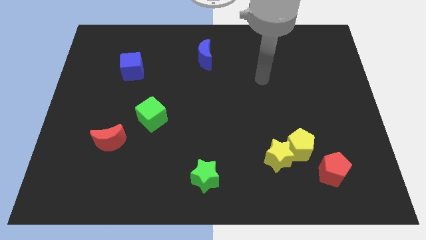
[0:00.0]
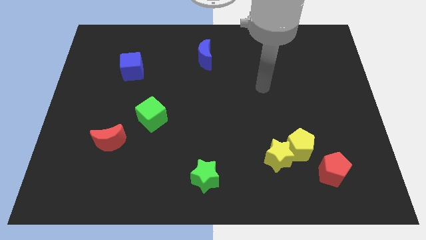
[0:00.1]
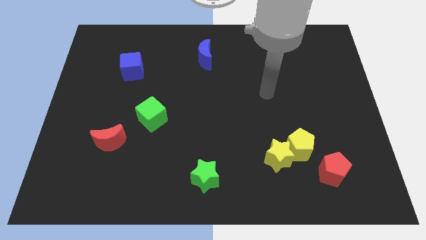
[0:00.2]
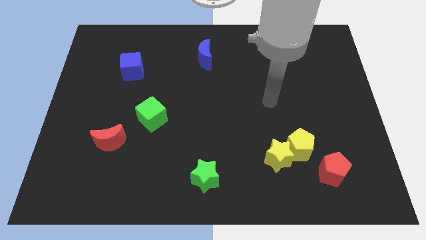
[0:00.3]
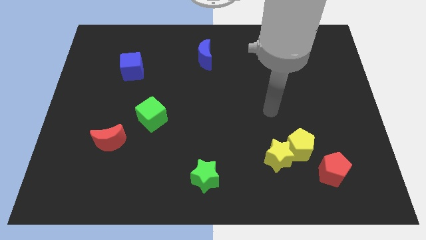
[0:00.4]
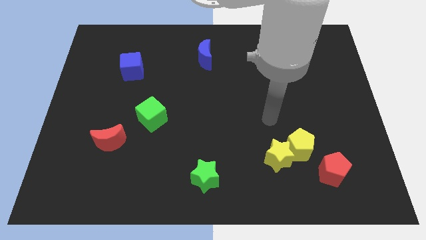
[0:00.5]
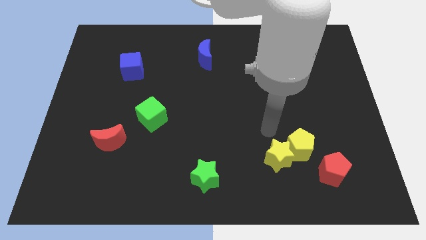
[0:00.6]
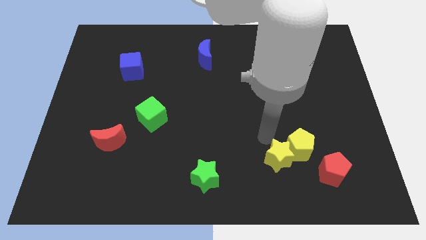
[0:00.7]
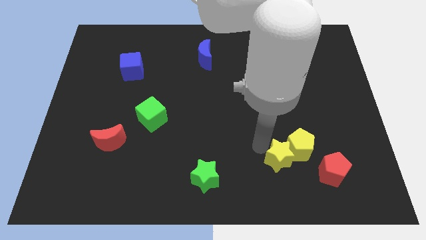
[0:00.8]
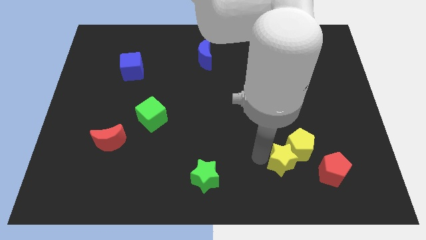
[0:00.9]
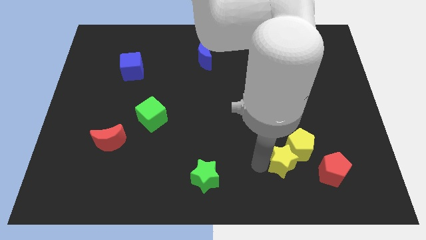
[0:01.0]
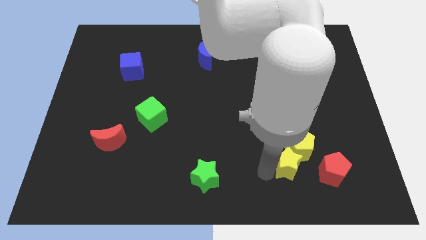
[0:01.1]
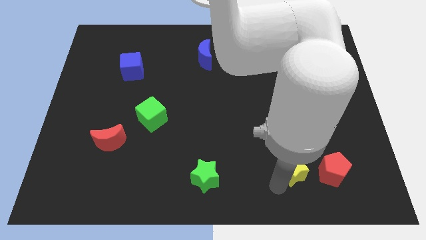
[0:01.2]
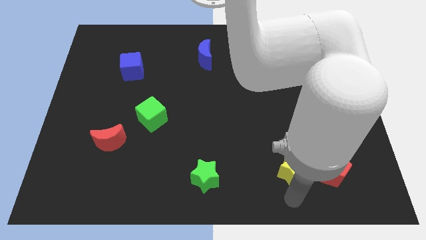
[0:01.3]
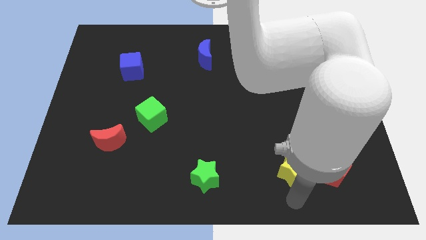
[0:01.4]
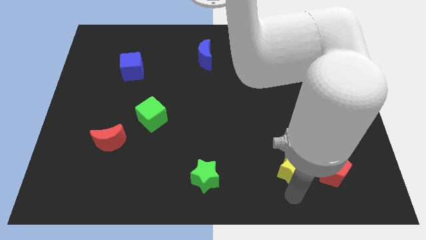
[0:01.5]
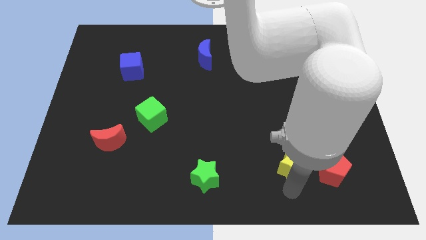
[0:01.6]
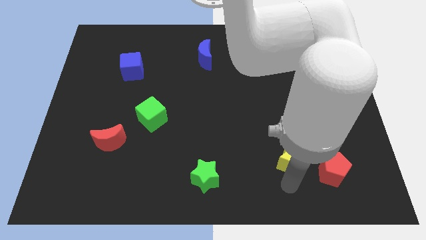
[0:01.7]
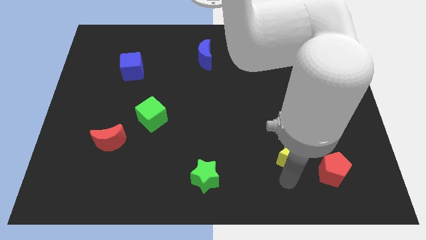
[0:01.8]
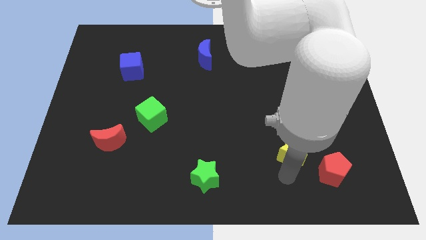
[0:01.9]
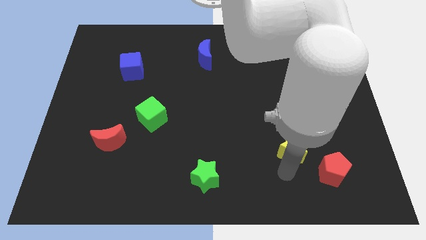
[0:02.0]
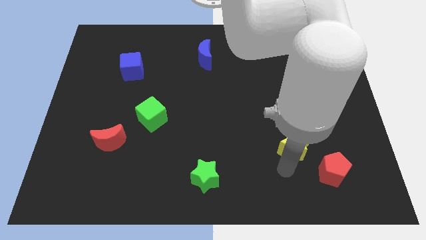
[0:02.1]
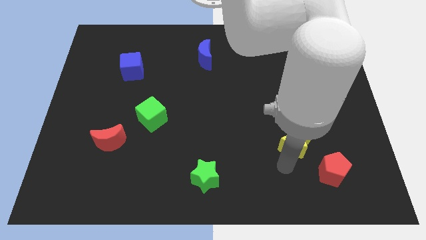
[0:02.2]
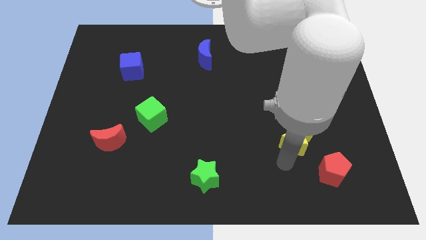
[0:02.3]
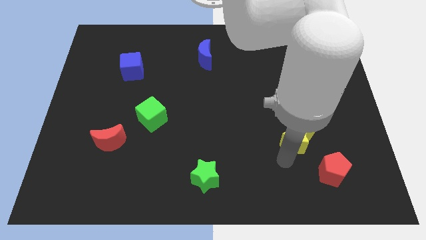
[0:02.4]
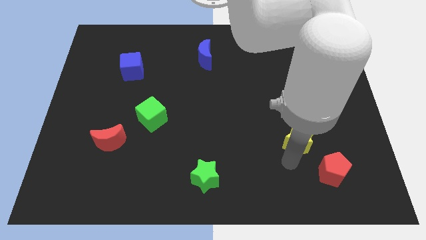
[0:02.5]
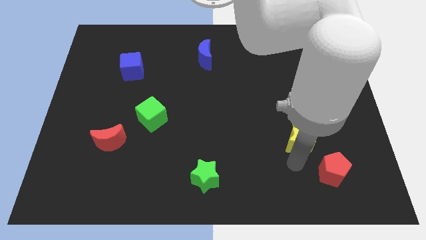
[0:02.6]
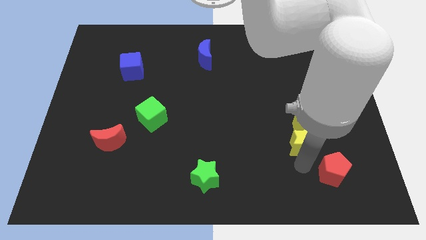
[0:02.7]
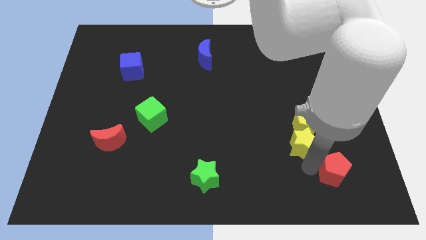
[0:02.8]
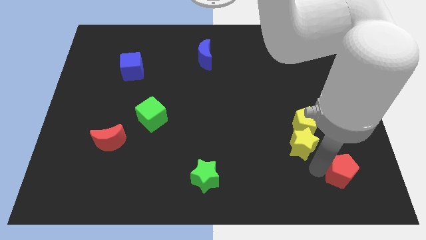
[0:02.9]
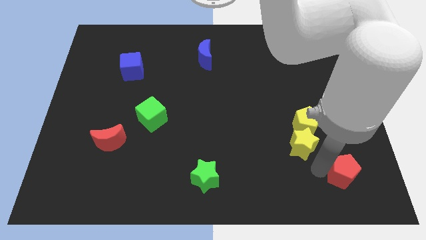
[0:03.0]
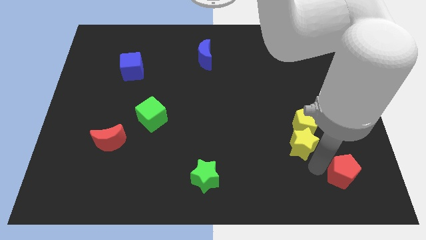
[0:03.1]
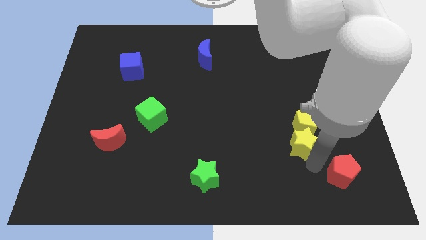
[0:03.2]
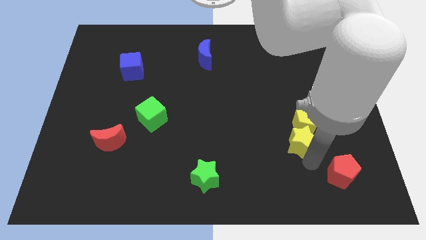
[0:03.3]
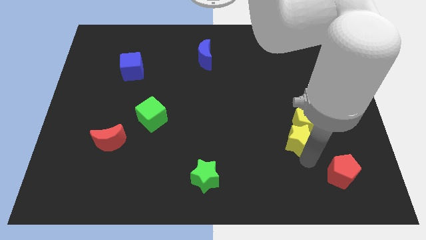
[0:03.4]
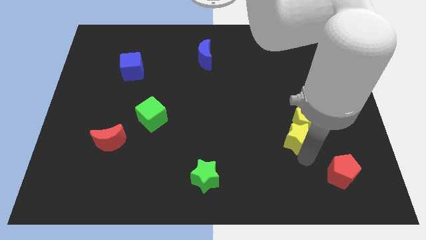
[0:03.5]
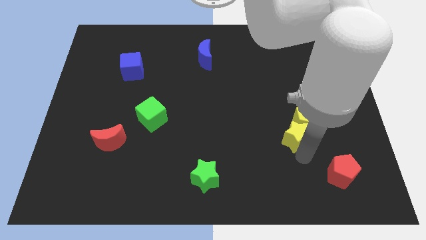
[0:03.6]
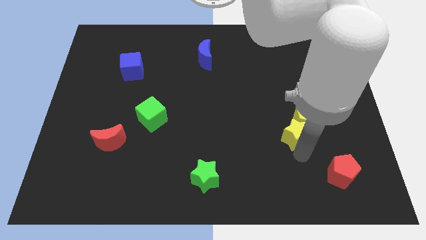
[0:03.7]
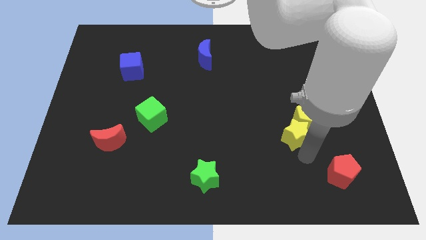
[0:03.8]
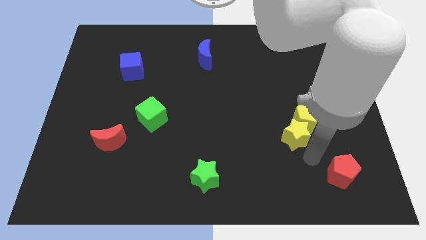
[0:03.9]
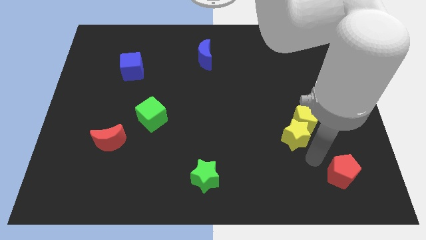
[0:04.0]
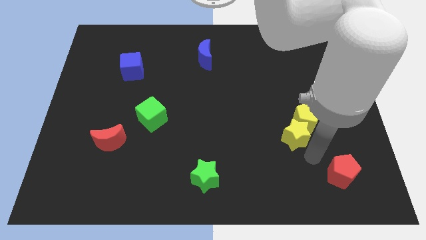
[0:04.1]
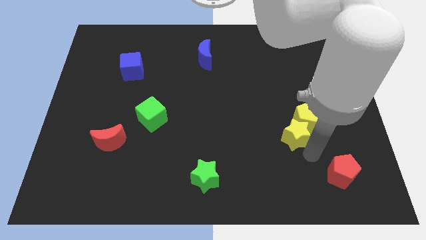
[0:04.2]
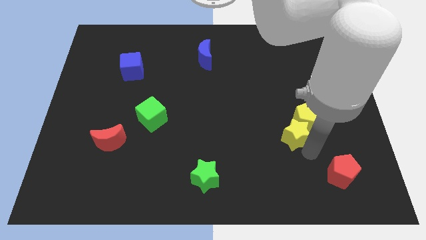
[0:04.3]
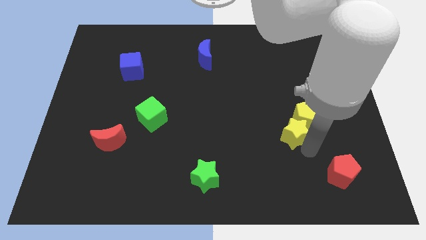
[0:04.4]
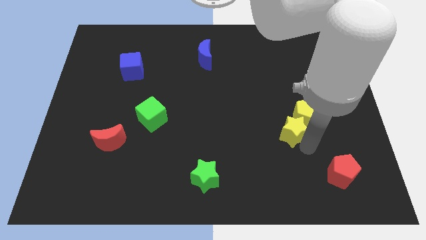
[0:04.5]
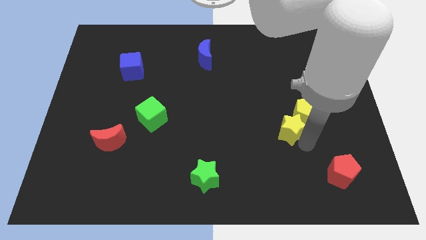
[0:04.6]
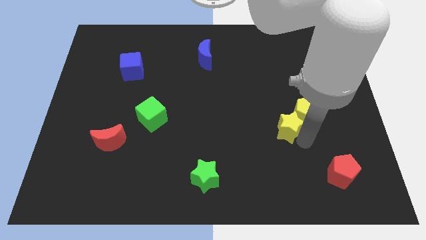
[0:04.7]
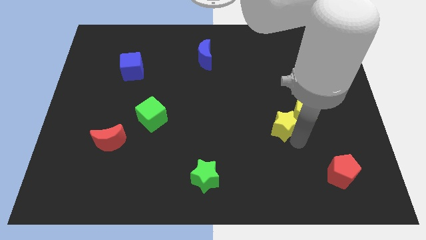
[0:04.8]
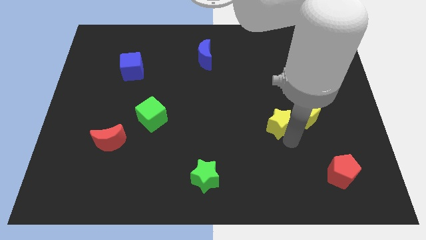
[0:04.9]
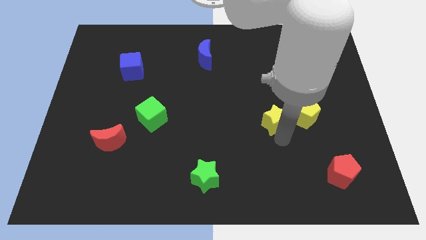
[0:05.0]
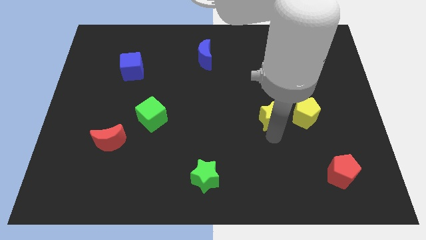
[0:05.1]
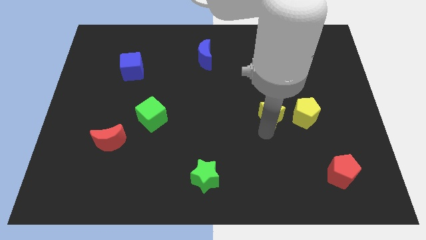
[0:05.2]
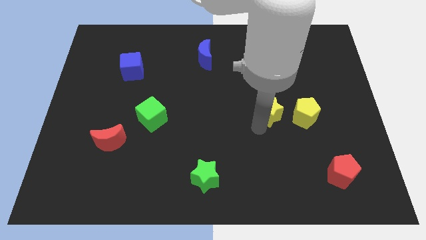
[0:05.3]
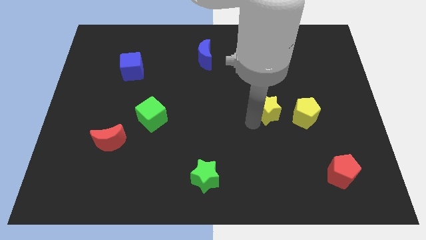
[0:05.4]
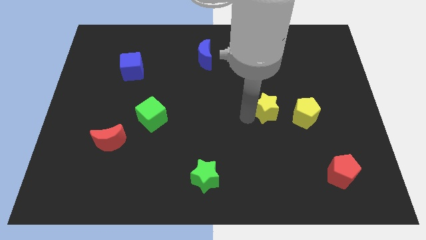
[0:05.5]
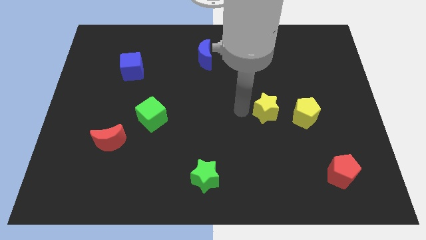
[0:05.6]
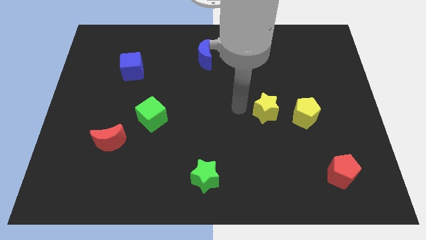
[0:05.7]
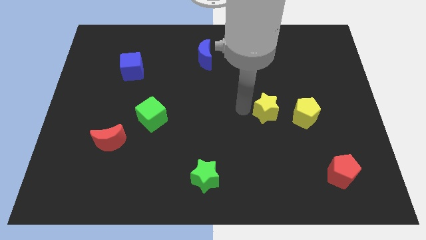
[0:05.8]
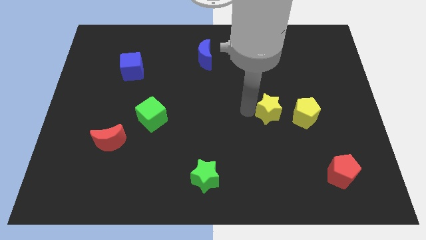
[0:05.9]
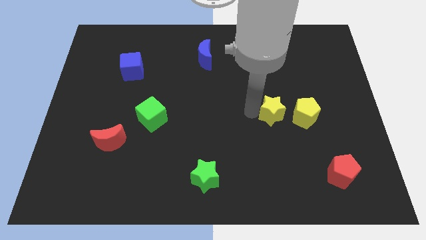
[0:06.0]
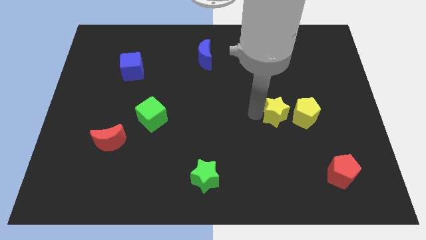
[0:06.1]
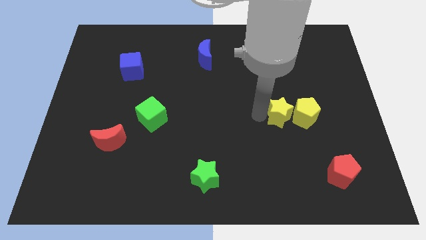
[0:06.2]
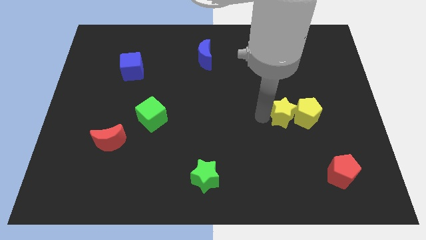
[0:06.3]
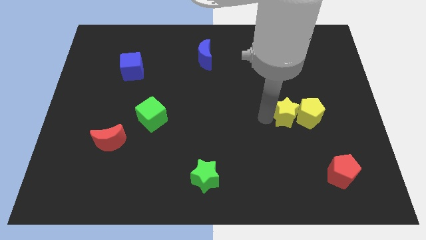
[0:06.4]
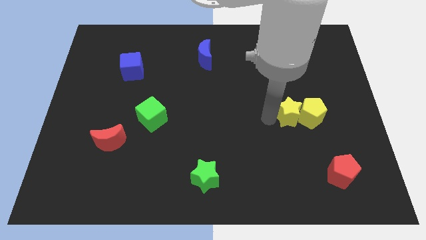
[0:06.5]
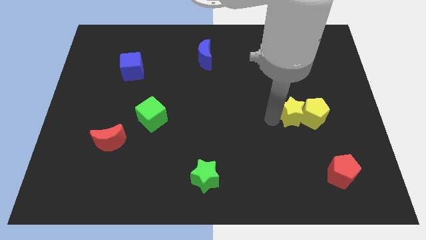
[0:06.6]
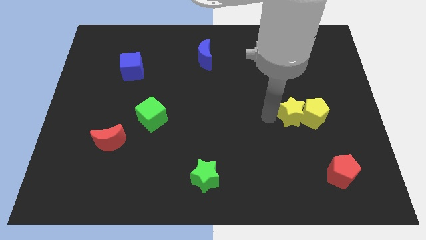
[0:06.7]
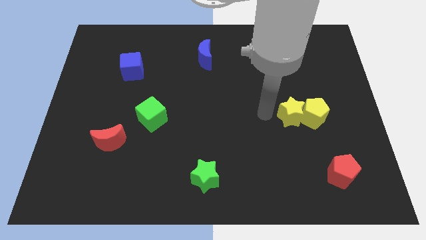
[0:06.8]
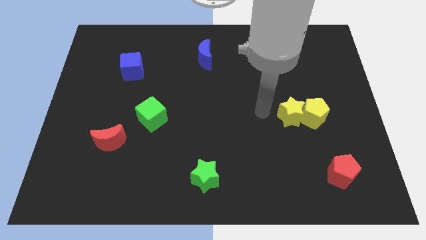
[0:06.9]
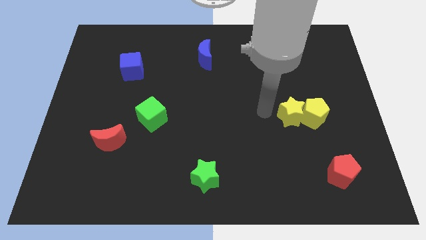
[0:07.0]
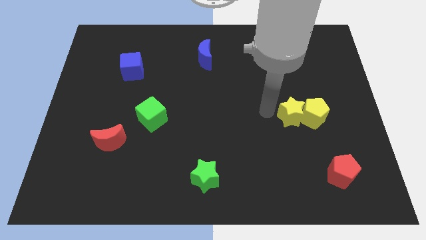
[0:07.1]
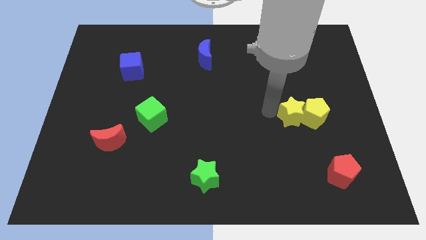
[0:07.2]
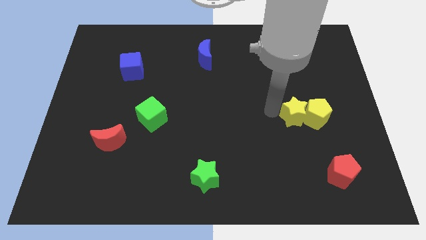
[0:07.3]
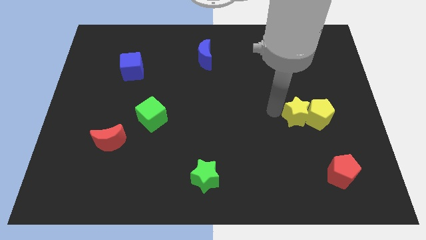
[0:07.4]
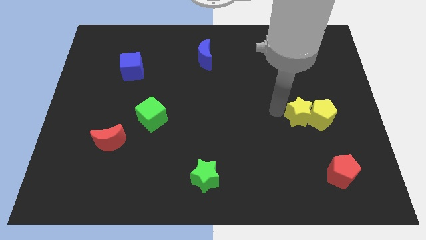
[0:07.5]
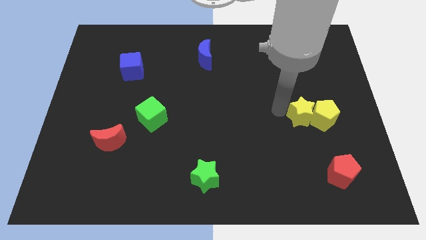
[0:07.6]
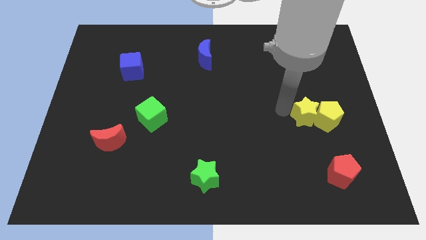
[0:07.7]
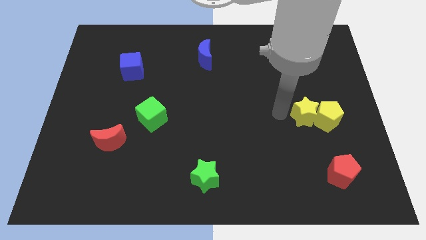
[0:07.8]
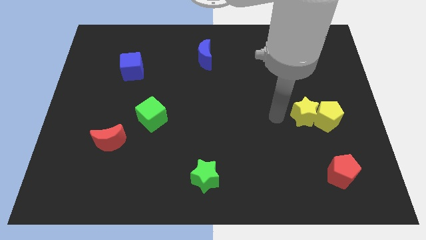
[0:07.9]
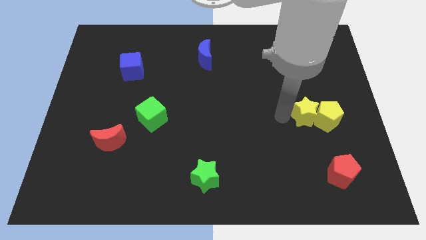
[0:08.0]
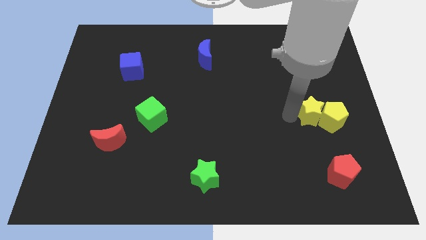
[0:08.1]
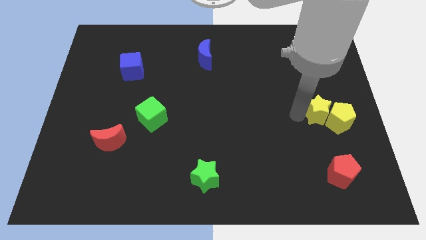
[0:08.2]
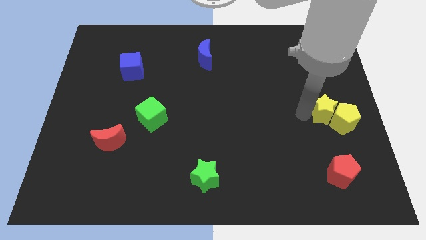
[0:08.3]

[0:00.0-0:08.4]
slide the yellow star to the right side of the board
